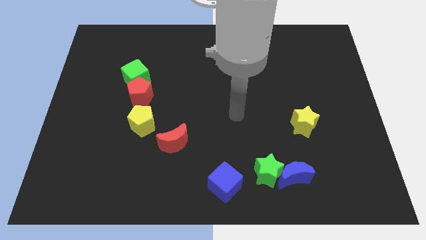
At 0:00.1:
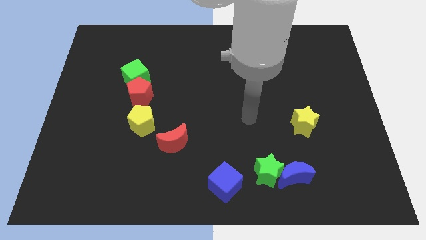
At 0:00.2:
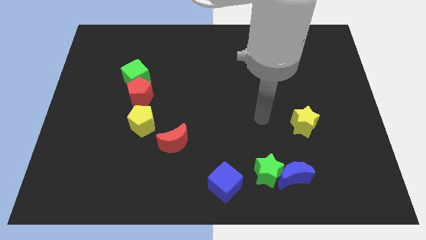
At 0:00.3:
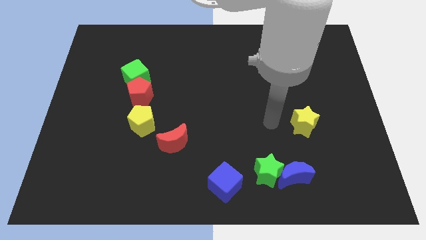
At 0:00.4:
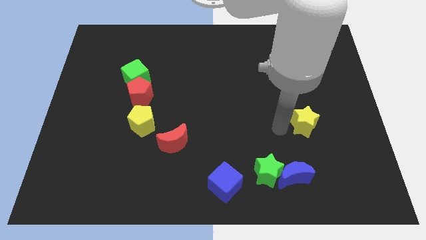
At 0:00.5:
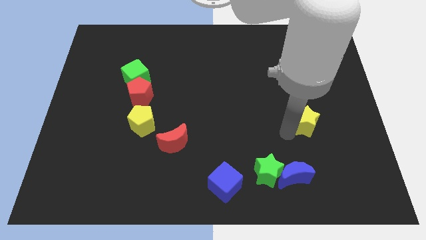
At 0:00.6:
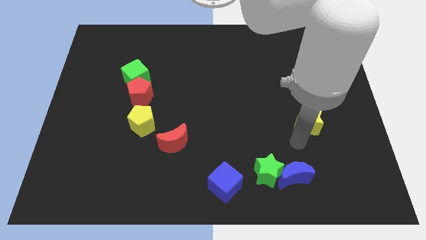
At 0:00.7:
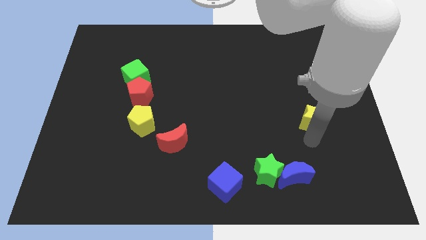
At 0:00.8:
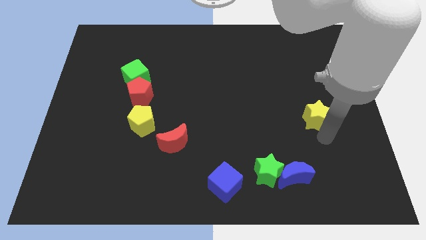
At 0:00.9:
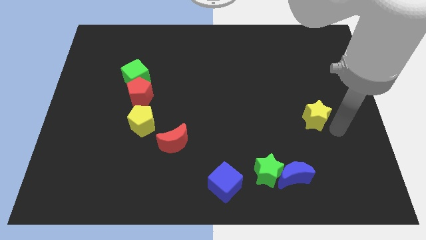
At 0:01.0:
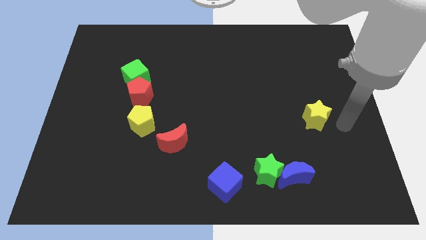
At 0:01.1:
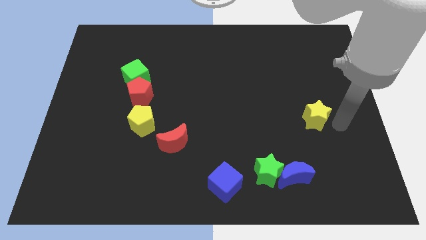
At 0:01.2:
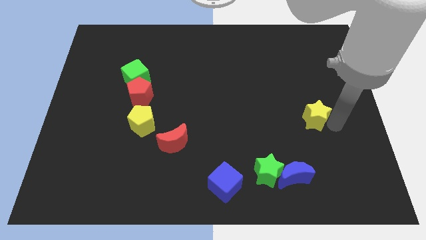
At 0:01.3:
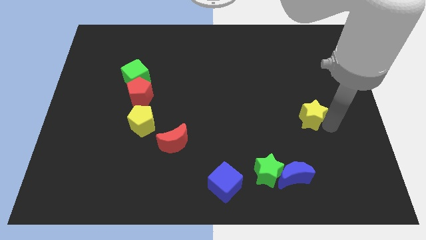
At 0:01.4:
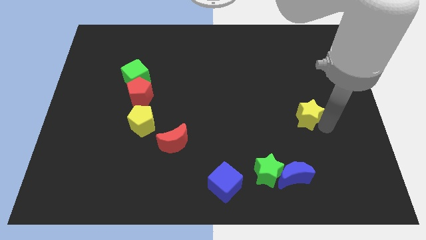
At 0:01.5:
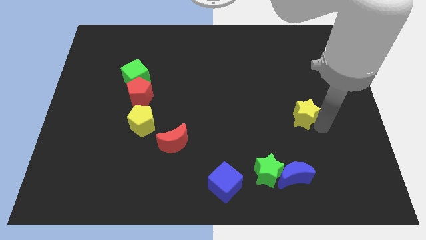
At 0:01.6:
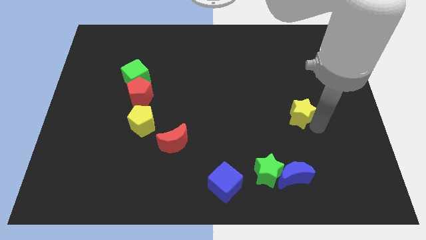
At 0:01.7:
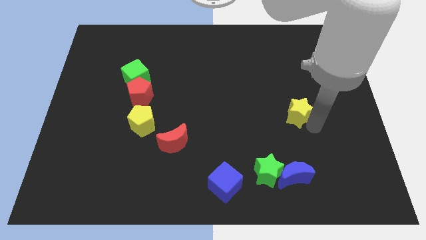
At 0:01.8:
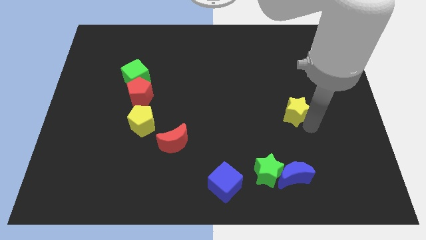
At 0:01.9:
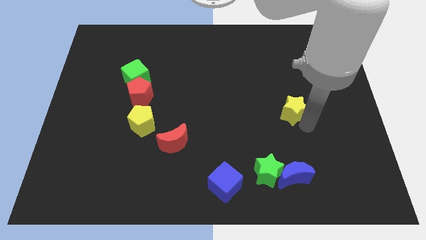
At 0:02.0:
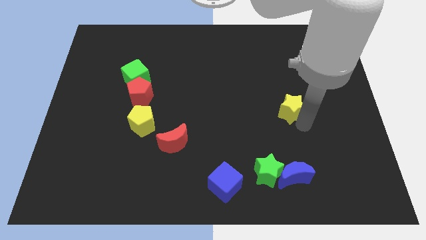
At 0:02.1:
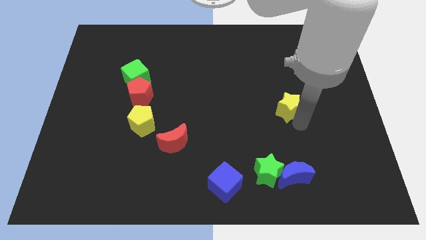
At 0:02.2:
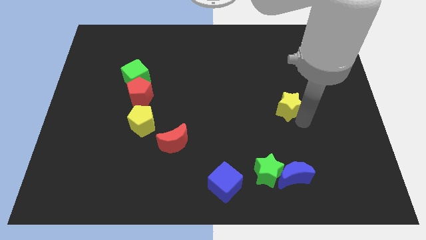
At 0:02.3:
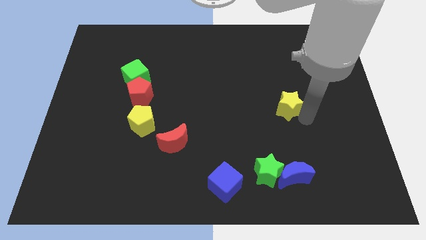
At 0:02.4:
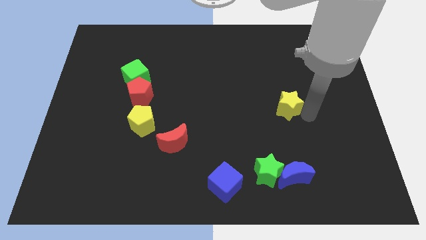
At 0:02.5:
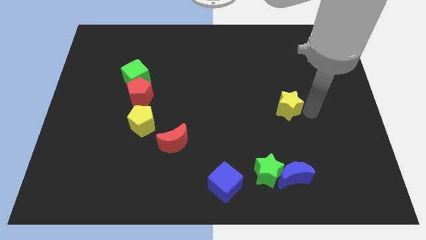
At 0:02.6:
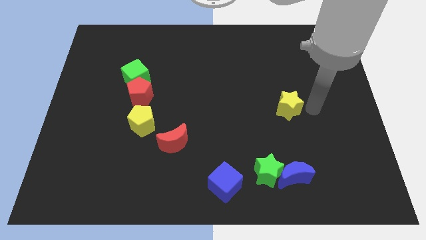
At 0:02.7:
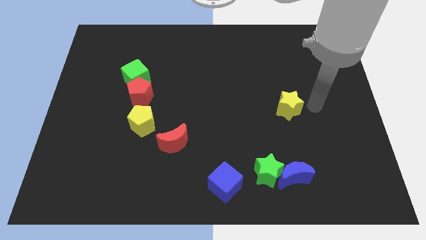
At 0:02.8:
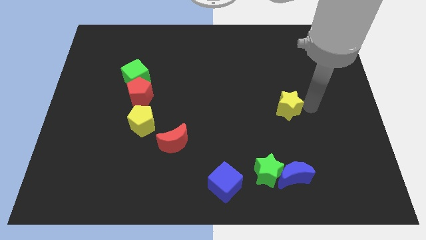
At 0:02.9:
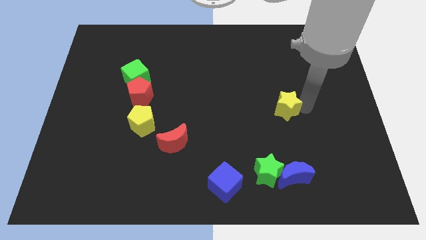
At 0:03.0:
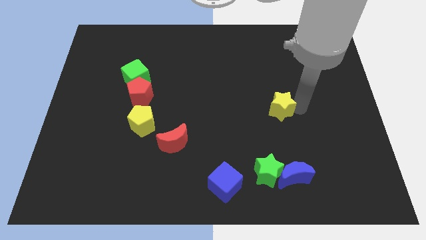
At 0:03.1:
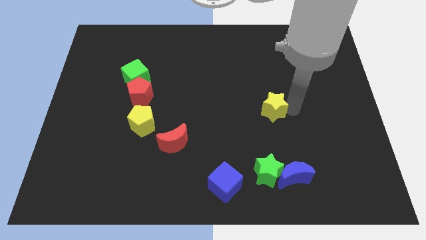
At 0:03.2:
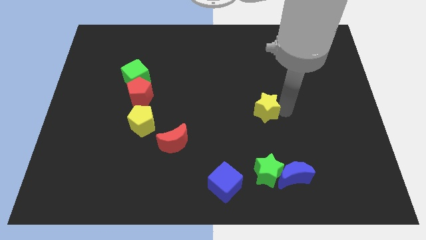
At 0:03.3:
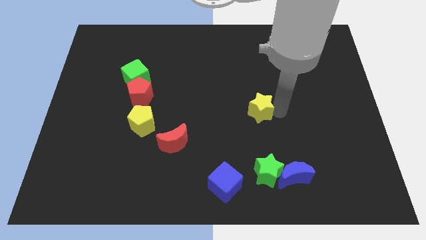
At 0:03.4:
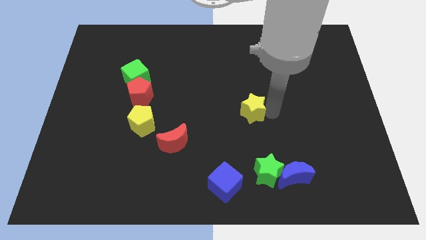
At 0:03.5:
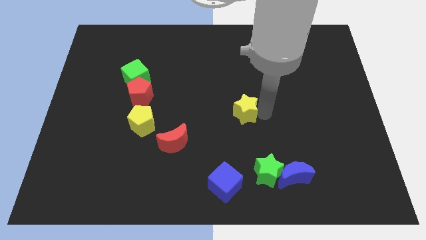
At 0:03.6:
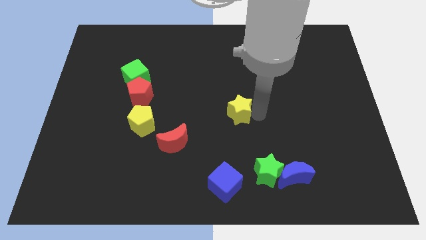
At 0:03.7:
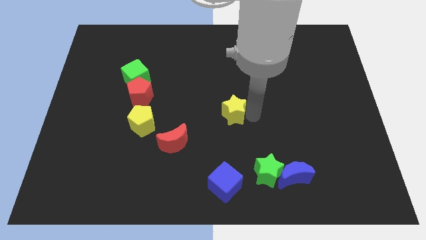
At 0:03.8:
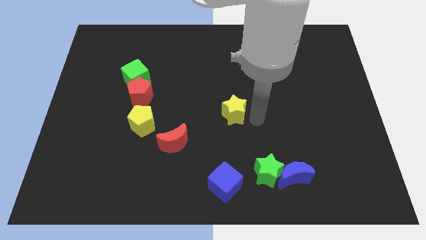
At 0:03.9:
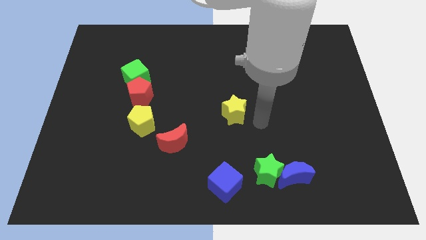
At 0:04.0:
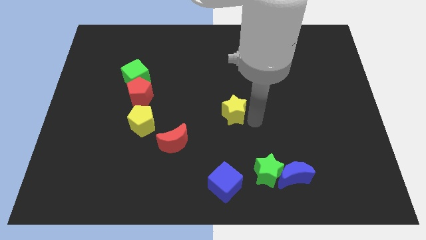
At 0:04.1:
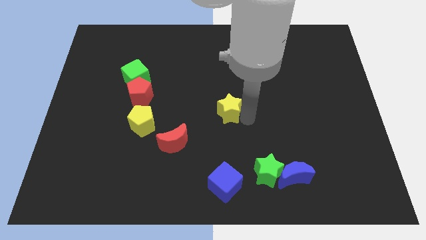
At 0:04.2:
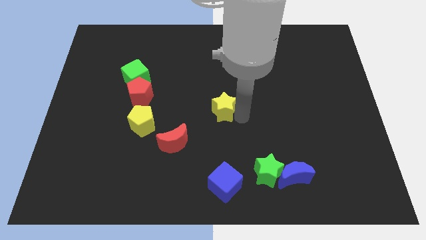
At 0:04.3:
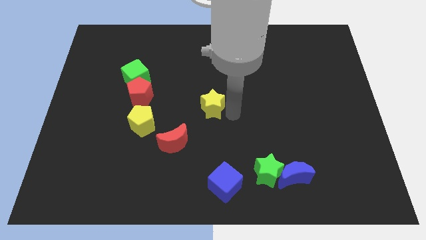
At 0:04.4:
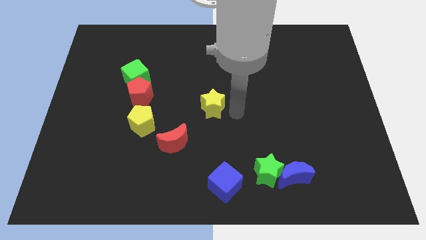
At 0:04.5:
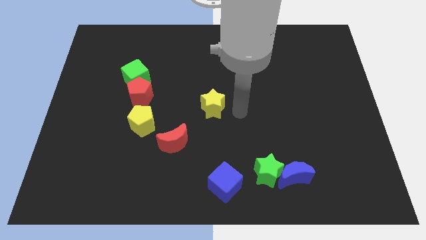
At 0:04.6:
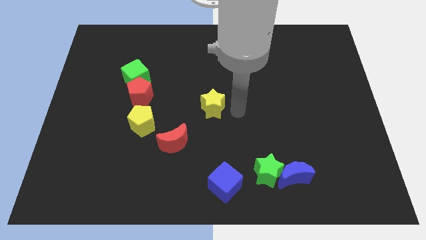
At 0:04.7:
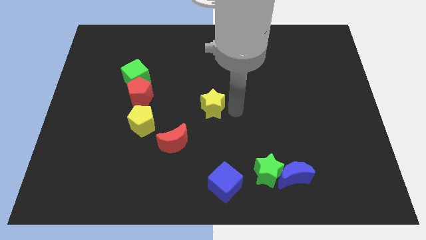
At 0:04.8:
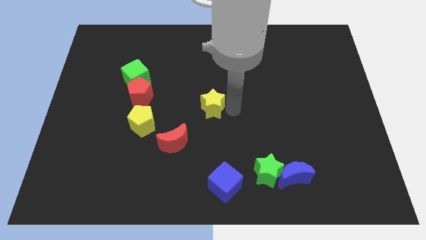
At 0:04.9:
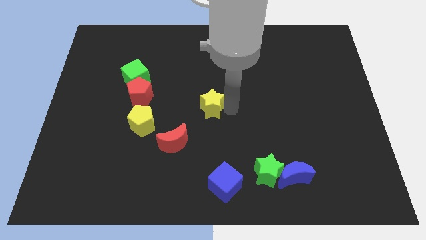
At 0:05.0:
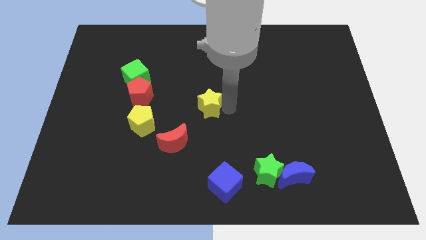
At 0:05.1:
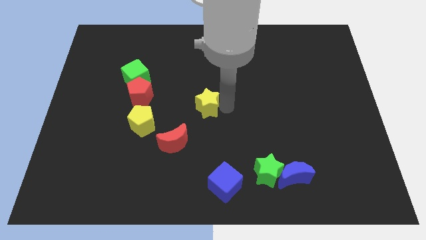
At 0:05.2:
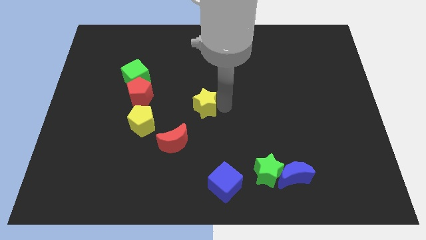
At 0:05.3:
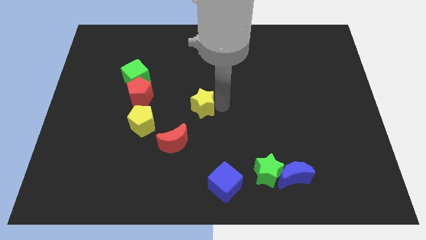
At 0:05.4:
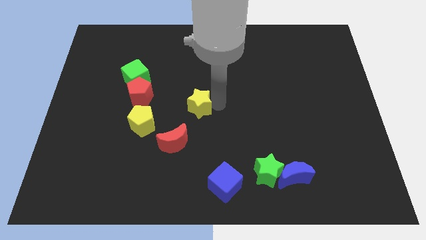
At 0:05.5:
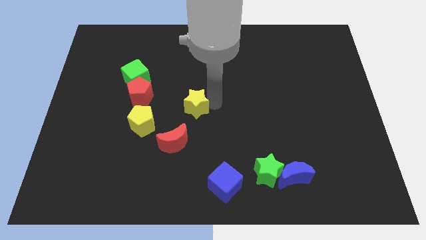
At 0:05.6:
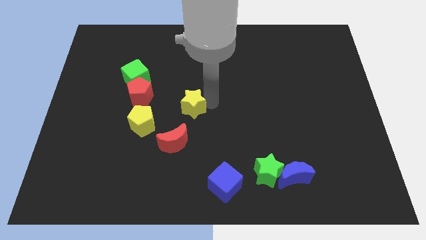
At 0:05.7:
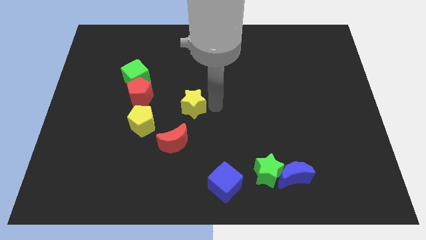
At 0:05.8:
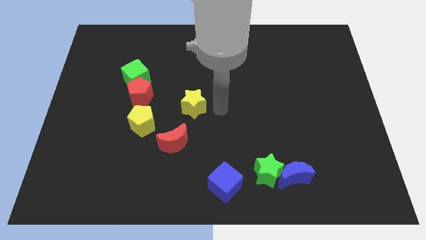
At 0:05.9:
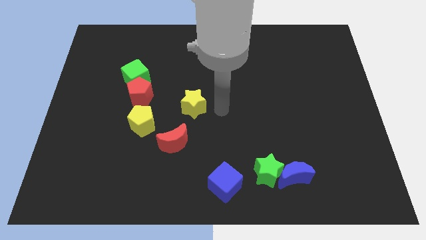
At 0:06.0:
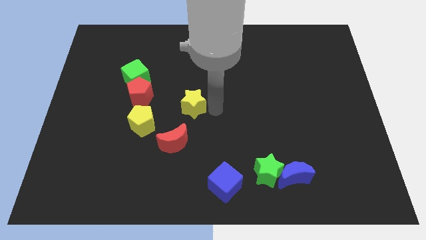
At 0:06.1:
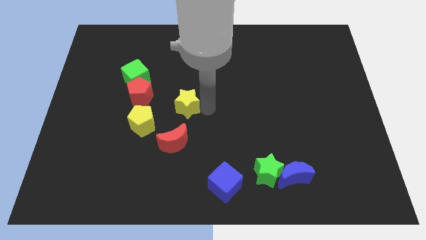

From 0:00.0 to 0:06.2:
push the yellow star to the top right of the yellow pentagon

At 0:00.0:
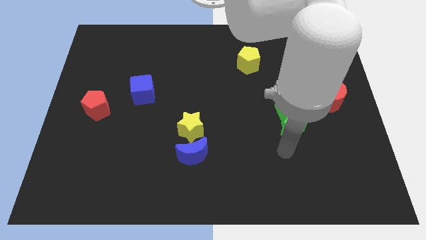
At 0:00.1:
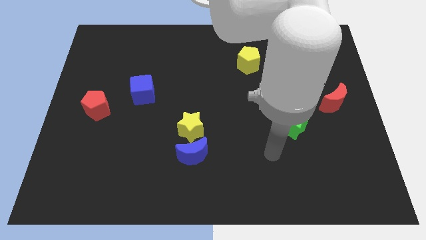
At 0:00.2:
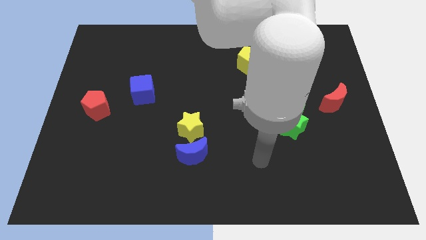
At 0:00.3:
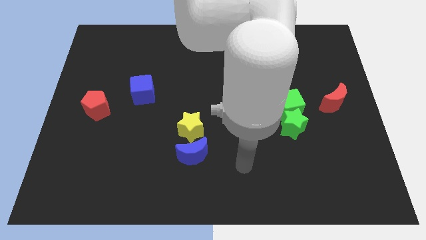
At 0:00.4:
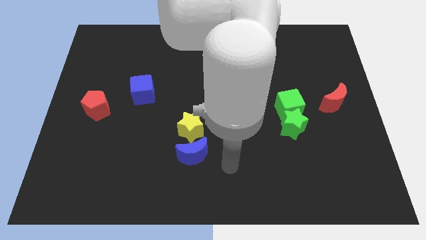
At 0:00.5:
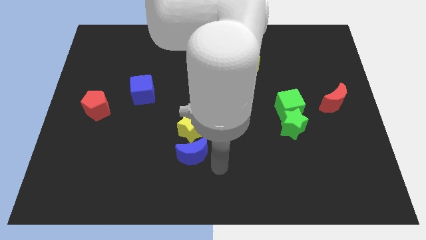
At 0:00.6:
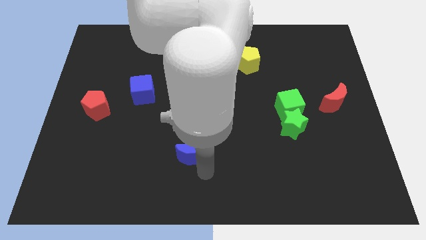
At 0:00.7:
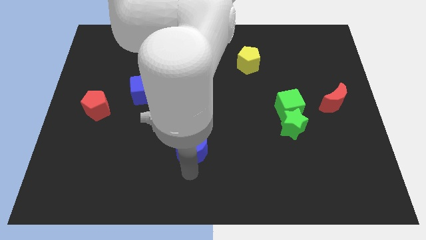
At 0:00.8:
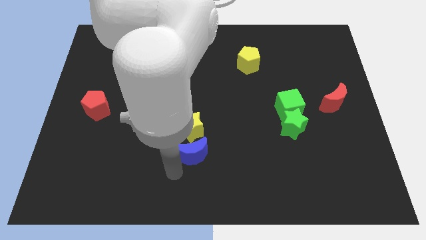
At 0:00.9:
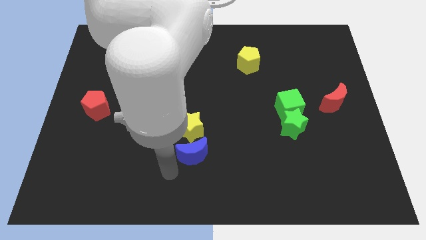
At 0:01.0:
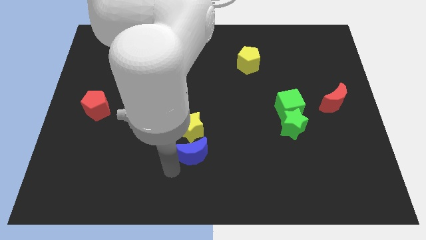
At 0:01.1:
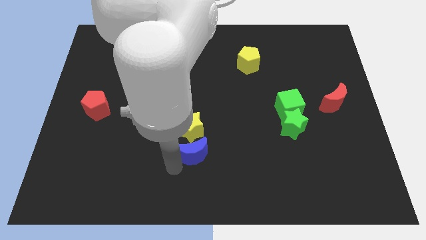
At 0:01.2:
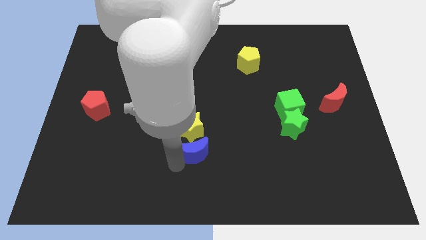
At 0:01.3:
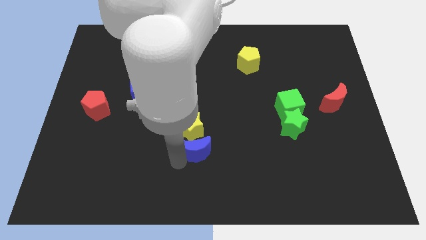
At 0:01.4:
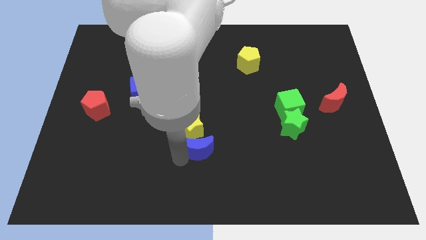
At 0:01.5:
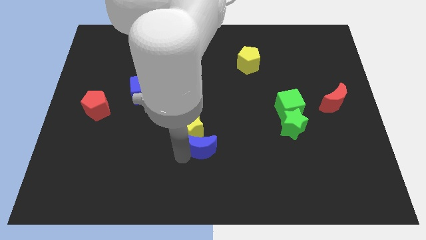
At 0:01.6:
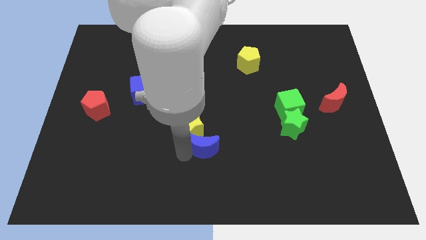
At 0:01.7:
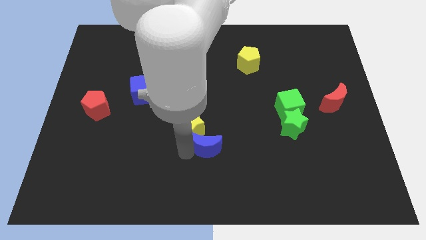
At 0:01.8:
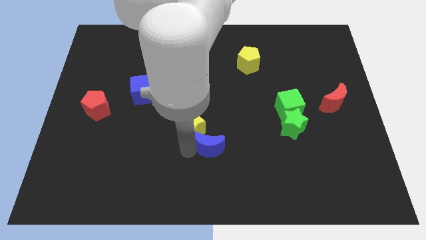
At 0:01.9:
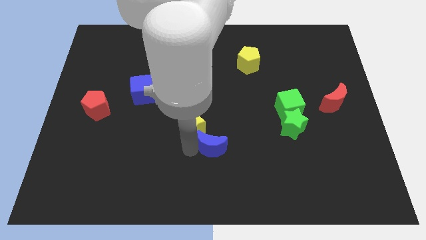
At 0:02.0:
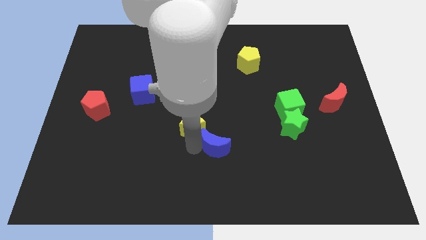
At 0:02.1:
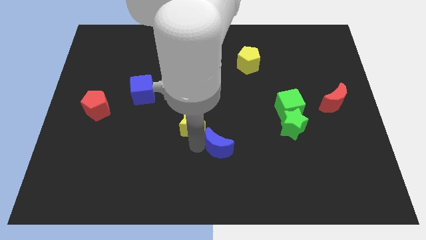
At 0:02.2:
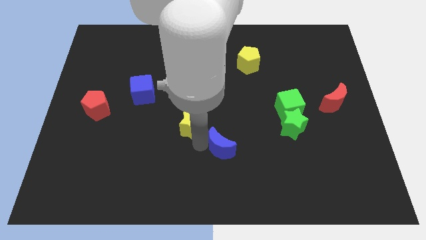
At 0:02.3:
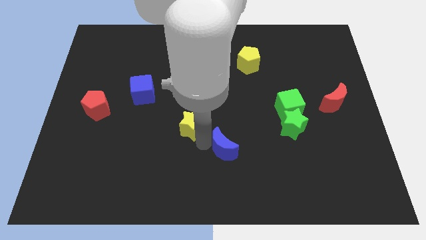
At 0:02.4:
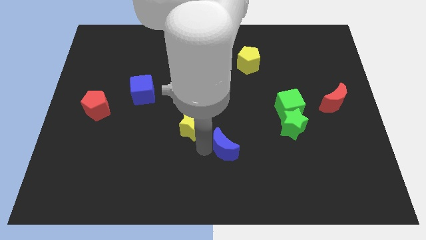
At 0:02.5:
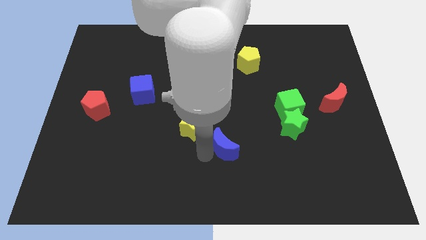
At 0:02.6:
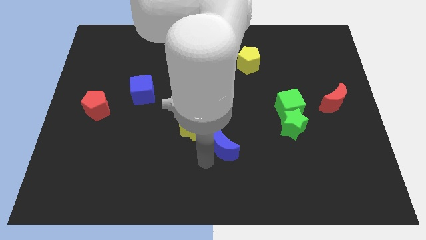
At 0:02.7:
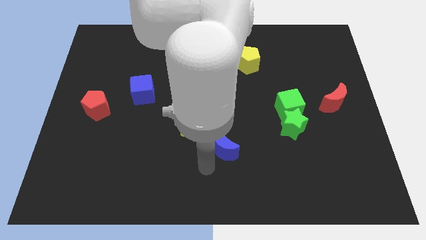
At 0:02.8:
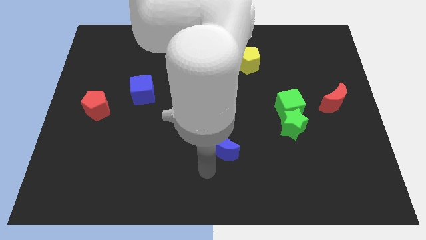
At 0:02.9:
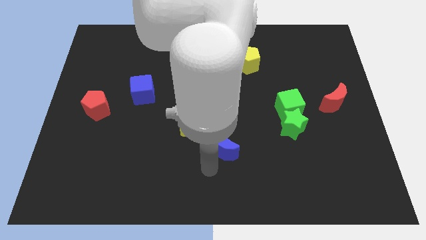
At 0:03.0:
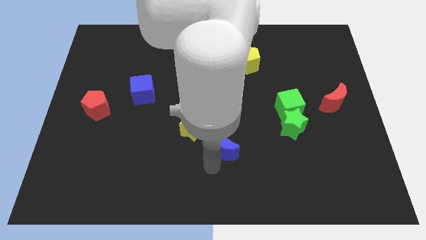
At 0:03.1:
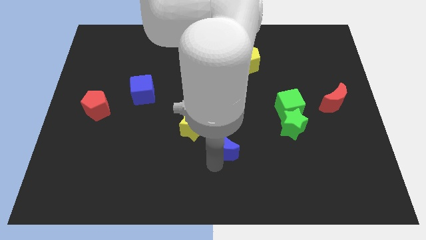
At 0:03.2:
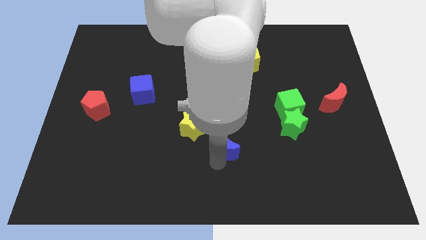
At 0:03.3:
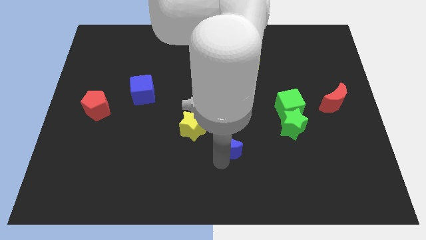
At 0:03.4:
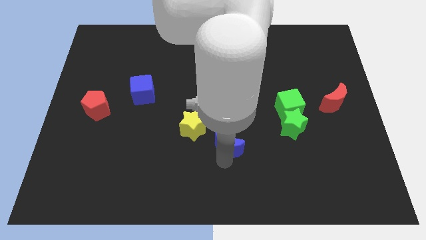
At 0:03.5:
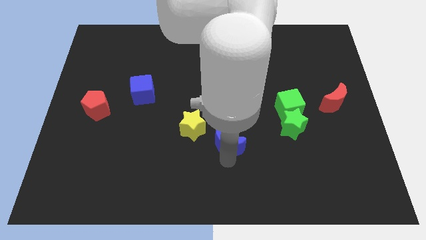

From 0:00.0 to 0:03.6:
push the blue moon to the right of the yellow star
